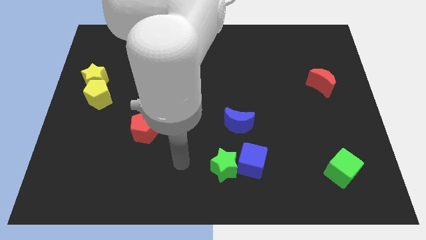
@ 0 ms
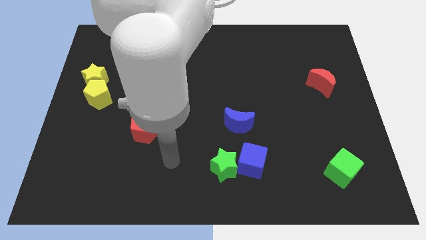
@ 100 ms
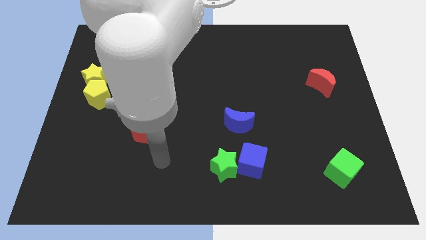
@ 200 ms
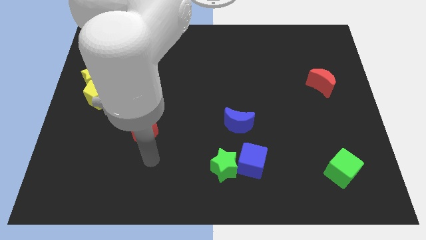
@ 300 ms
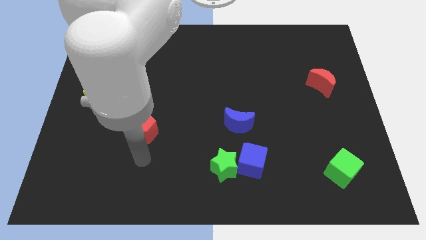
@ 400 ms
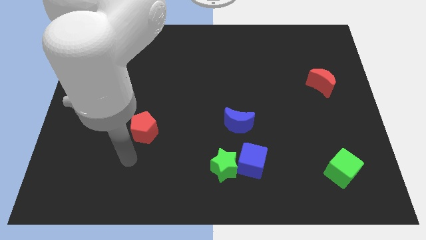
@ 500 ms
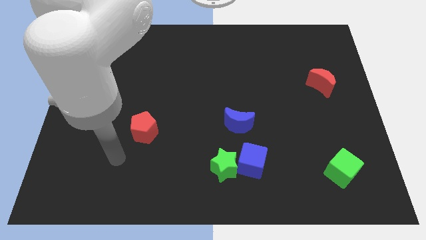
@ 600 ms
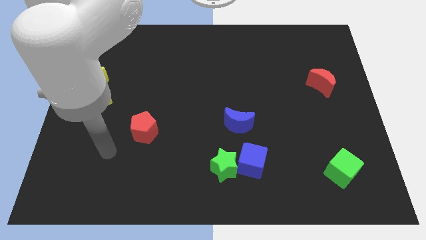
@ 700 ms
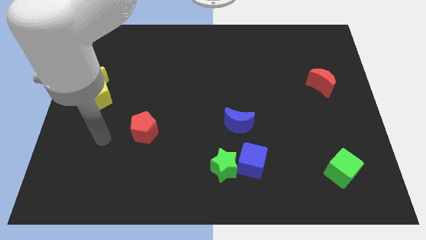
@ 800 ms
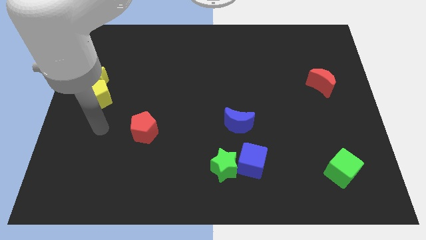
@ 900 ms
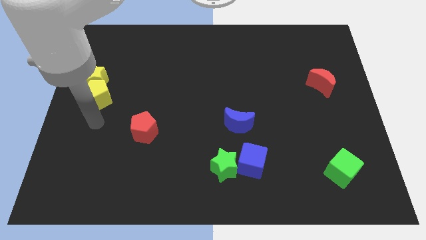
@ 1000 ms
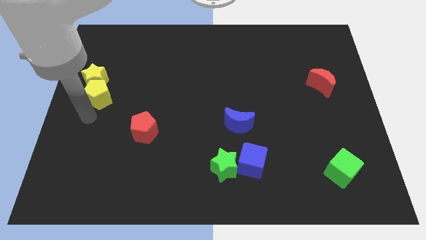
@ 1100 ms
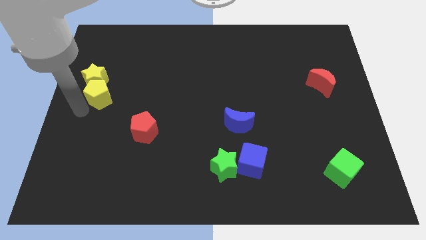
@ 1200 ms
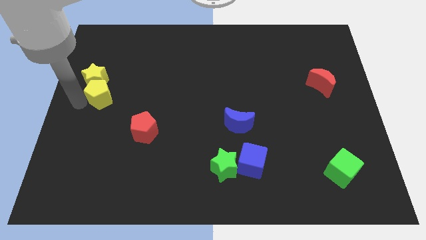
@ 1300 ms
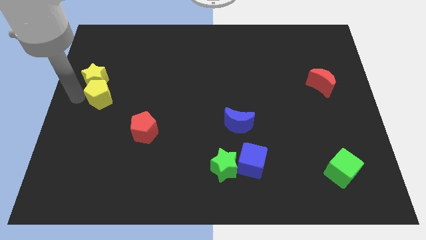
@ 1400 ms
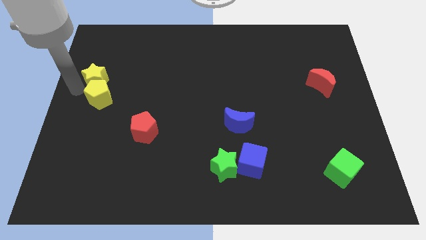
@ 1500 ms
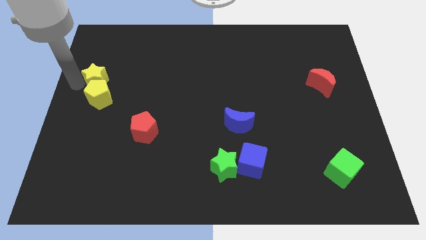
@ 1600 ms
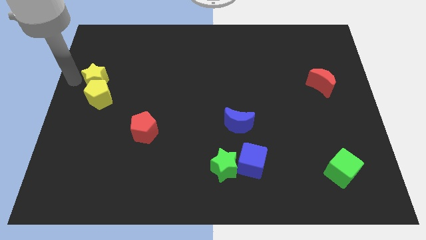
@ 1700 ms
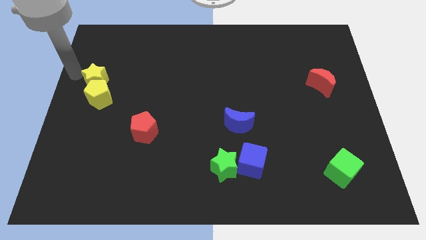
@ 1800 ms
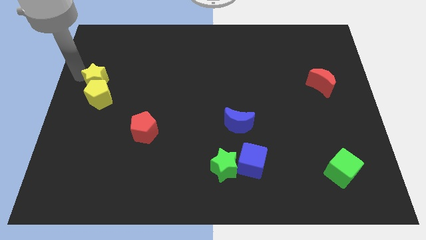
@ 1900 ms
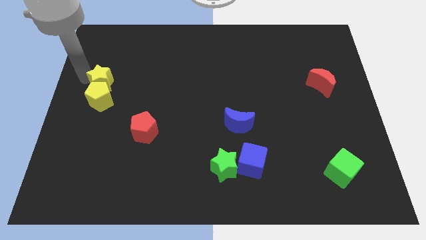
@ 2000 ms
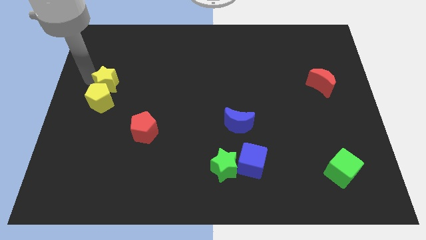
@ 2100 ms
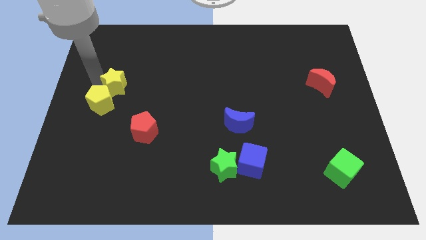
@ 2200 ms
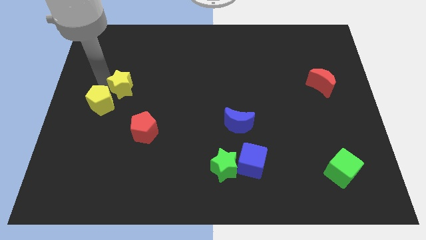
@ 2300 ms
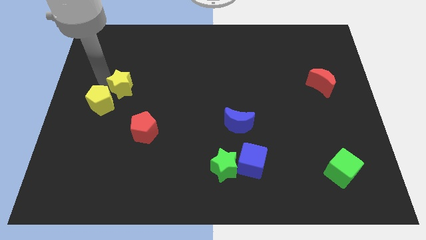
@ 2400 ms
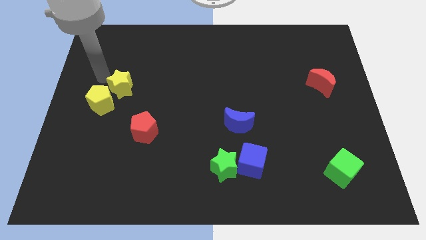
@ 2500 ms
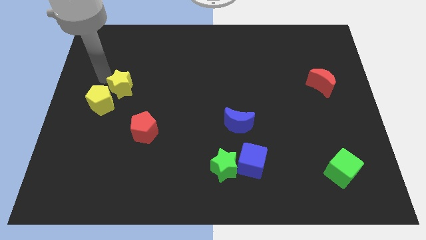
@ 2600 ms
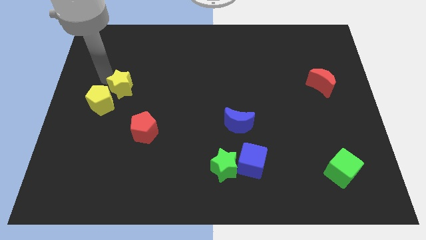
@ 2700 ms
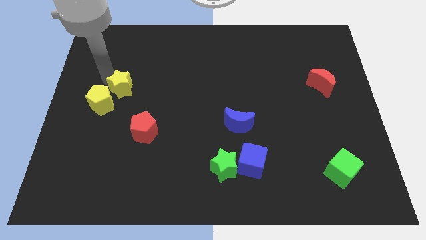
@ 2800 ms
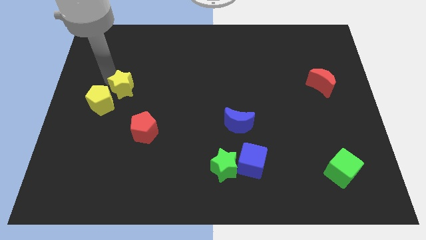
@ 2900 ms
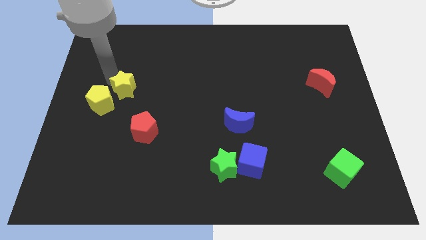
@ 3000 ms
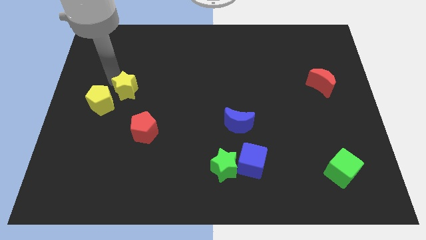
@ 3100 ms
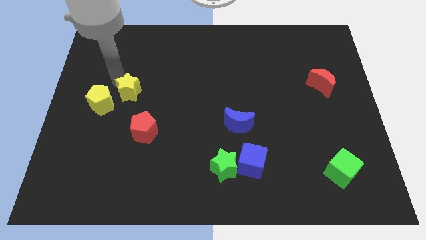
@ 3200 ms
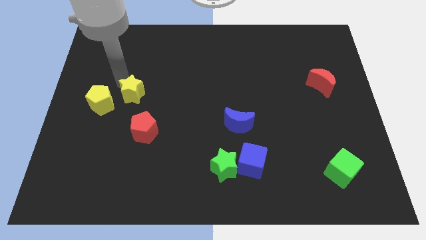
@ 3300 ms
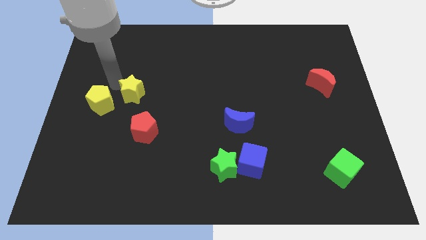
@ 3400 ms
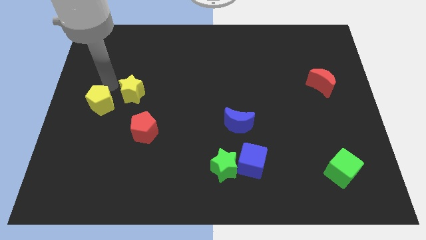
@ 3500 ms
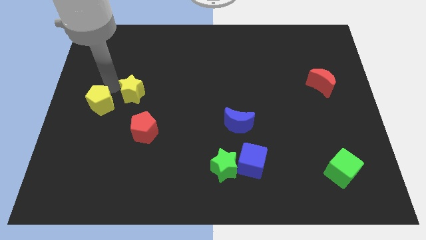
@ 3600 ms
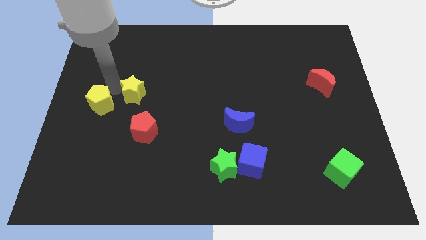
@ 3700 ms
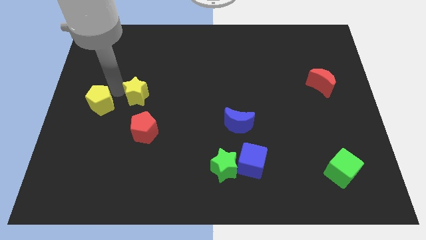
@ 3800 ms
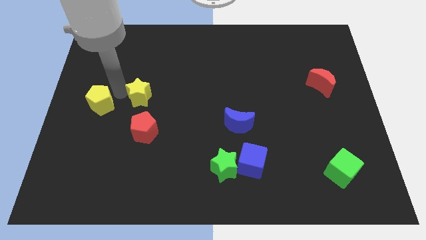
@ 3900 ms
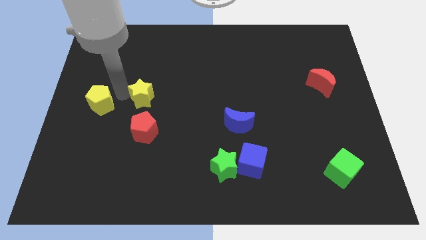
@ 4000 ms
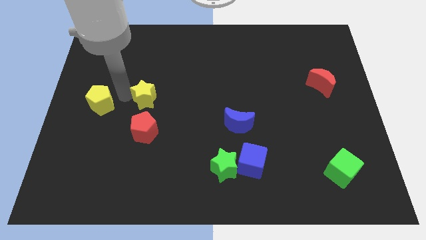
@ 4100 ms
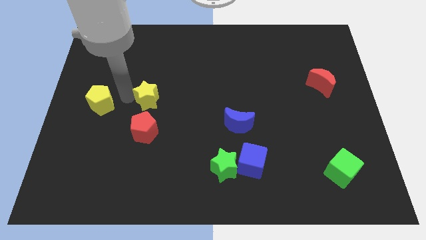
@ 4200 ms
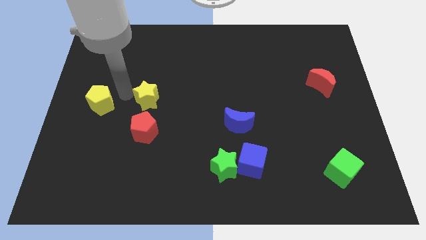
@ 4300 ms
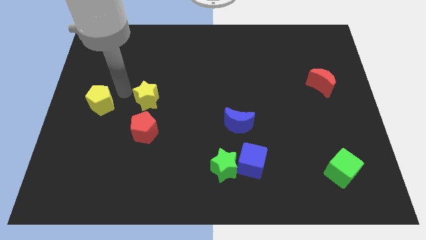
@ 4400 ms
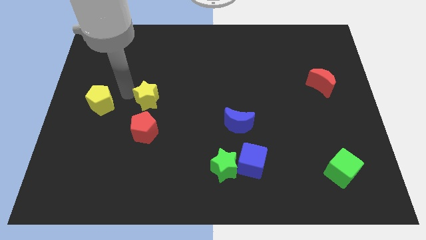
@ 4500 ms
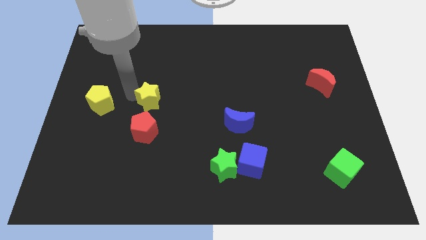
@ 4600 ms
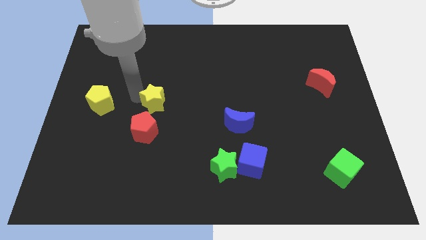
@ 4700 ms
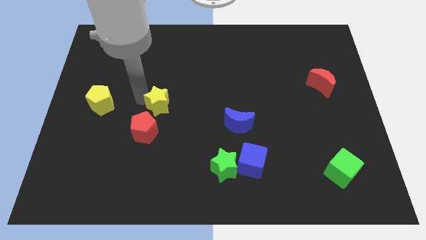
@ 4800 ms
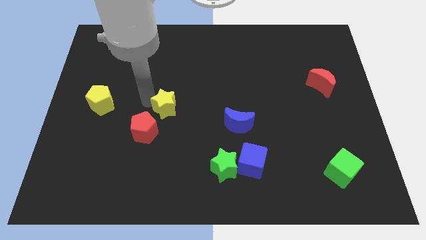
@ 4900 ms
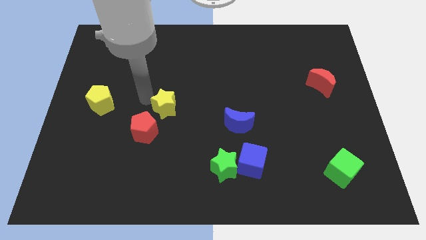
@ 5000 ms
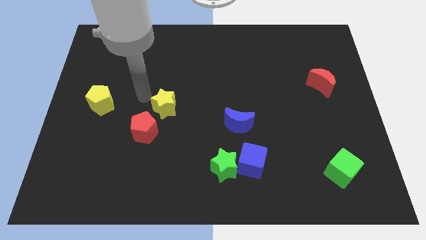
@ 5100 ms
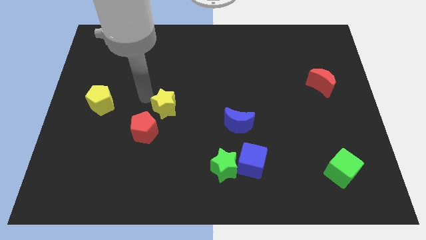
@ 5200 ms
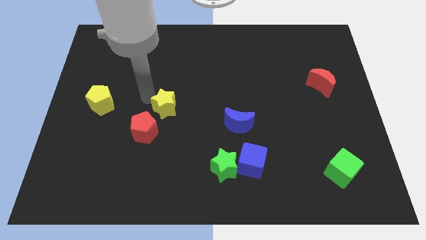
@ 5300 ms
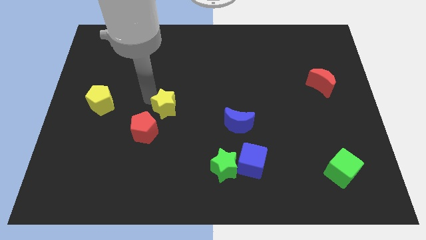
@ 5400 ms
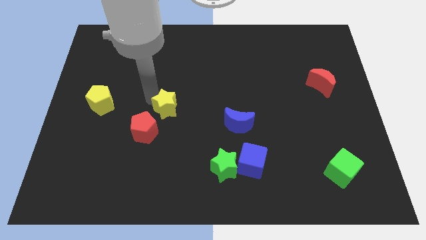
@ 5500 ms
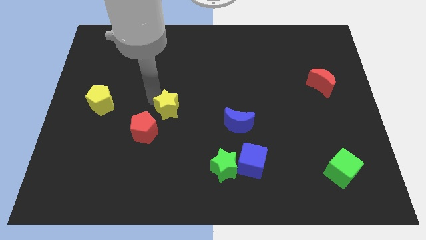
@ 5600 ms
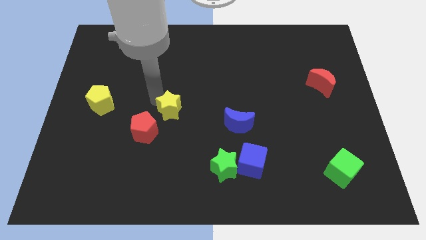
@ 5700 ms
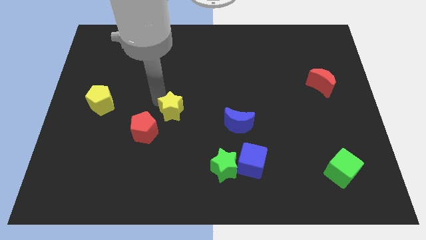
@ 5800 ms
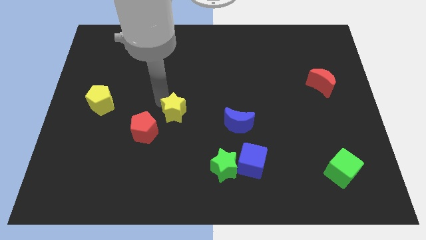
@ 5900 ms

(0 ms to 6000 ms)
push the yellow star just left of the blue moon

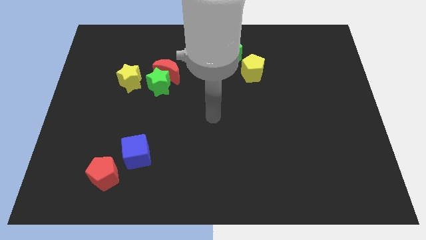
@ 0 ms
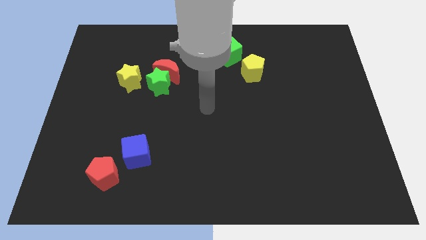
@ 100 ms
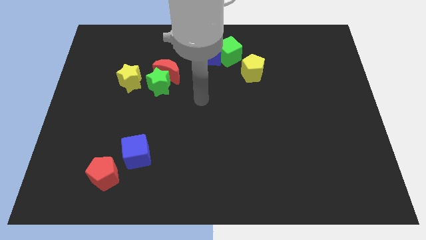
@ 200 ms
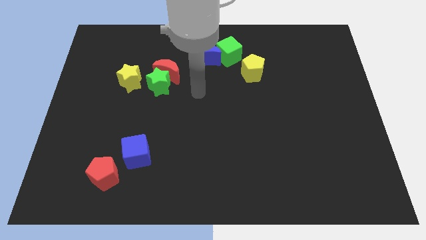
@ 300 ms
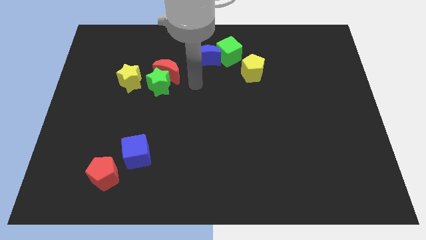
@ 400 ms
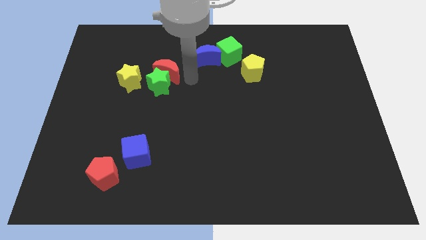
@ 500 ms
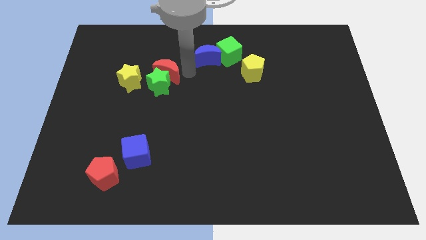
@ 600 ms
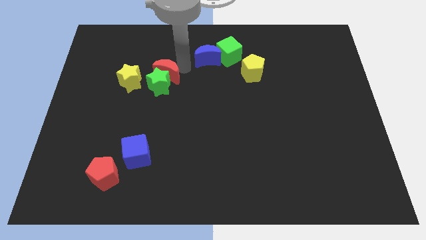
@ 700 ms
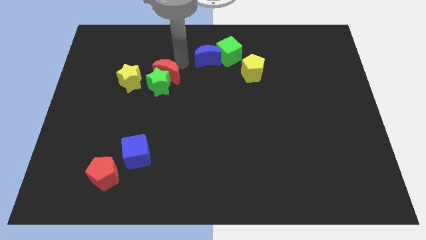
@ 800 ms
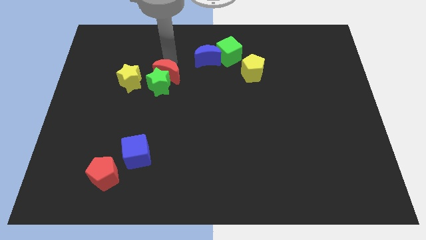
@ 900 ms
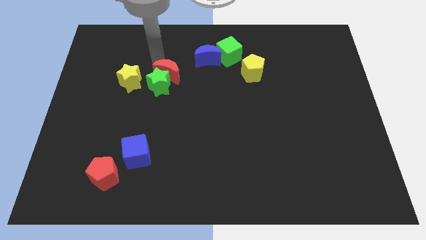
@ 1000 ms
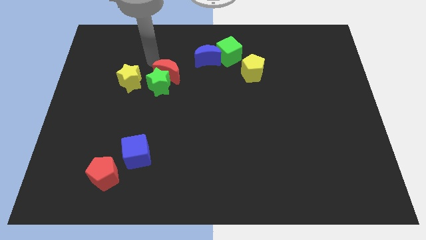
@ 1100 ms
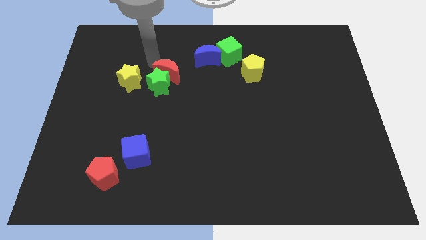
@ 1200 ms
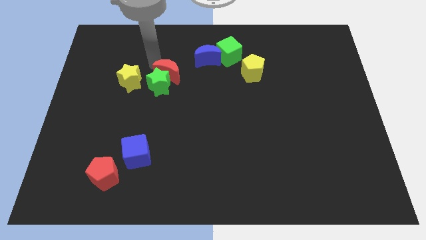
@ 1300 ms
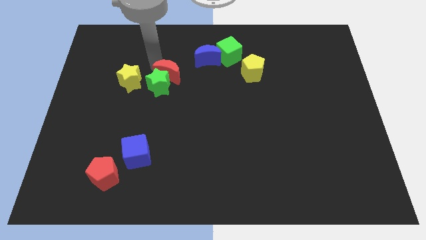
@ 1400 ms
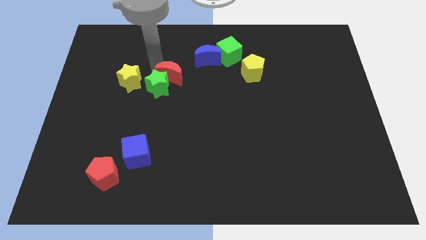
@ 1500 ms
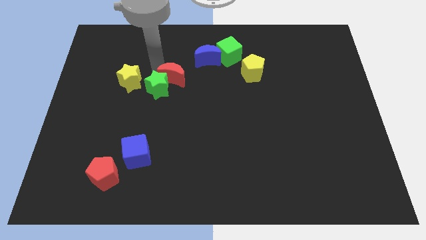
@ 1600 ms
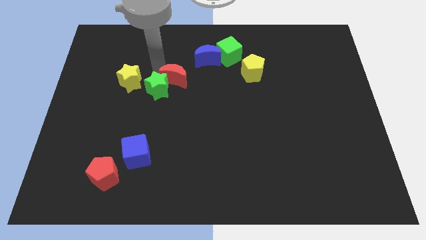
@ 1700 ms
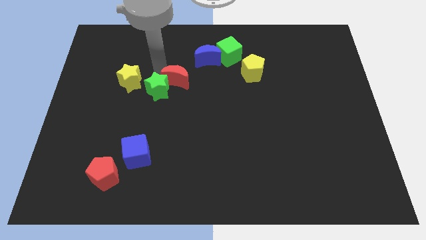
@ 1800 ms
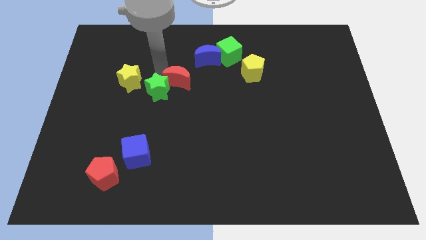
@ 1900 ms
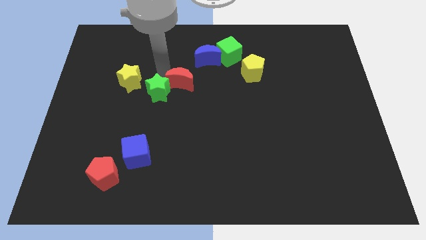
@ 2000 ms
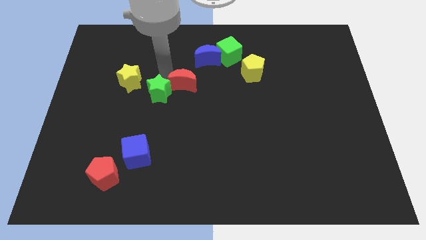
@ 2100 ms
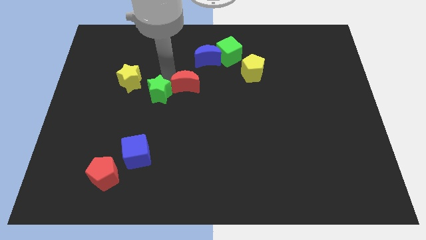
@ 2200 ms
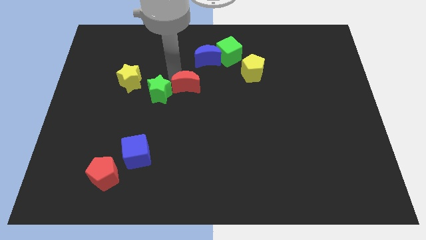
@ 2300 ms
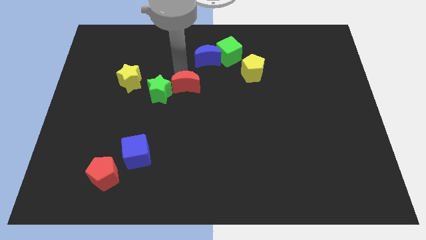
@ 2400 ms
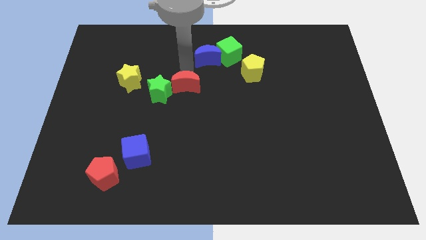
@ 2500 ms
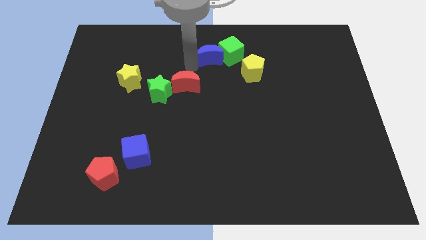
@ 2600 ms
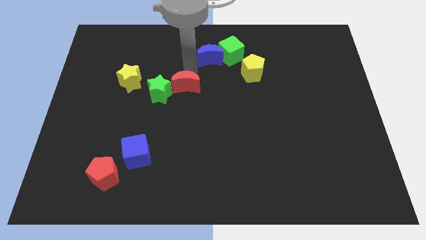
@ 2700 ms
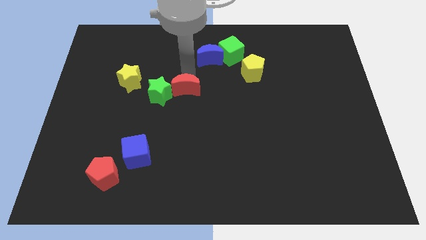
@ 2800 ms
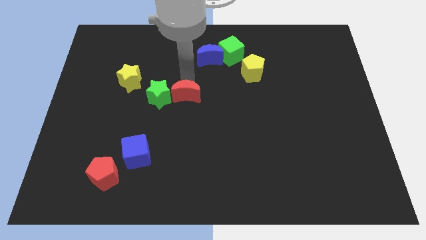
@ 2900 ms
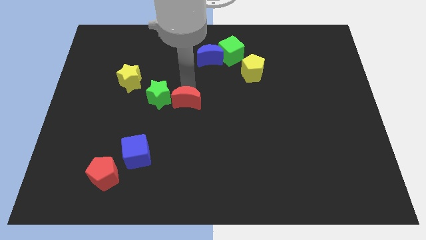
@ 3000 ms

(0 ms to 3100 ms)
push the red moon diagonally down and to the right of the green star
